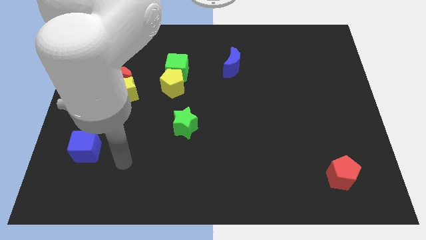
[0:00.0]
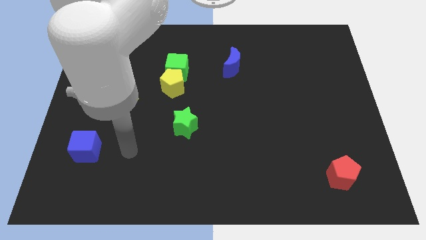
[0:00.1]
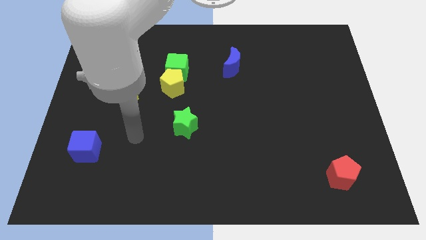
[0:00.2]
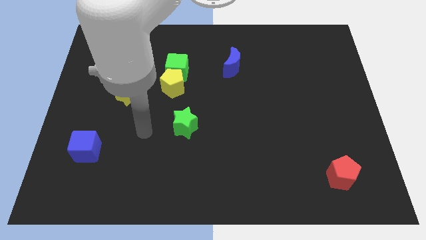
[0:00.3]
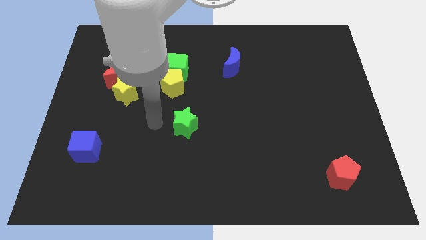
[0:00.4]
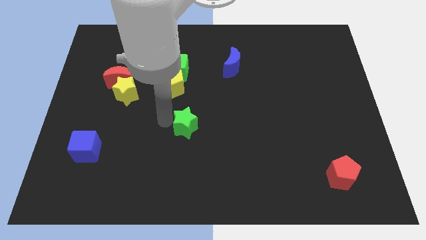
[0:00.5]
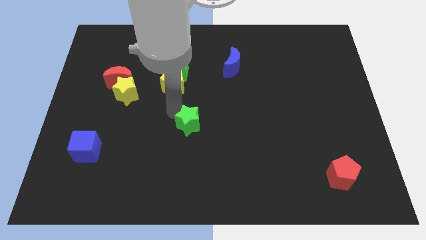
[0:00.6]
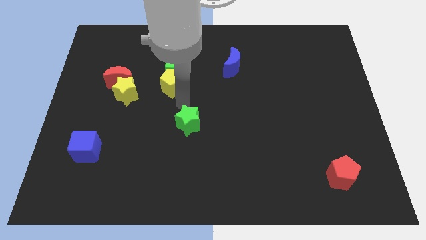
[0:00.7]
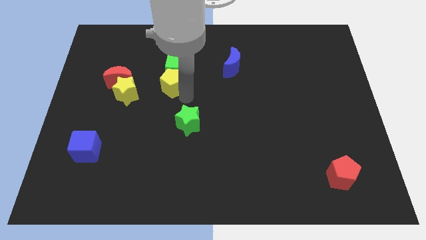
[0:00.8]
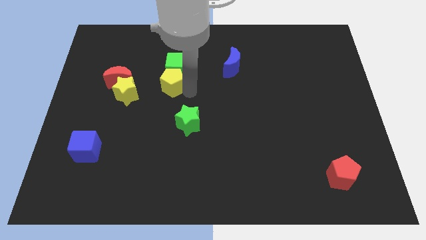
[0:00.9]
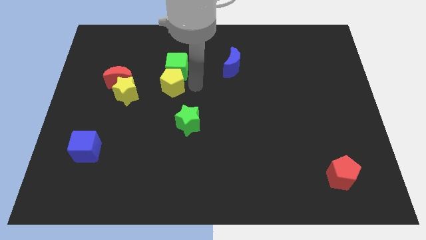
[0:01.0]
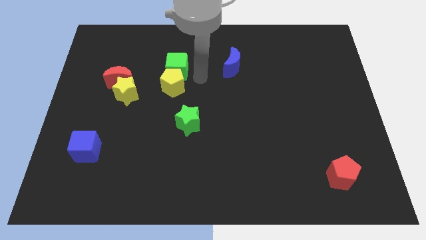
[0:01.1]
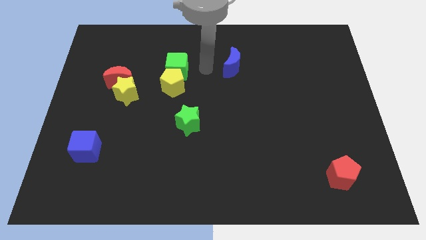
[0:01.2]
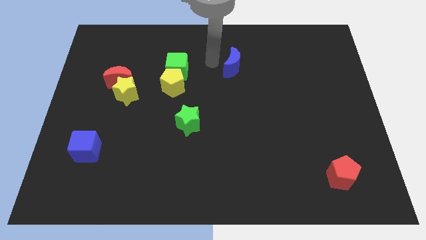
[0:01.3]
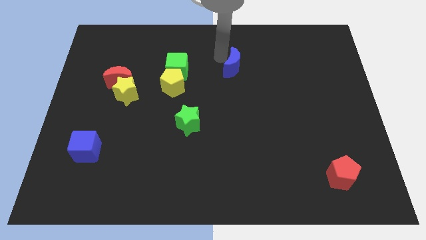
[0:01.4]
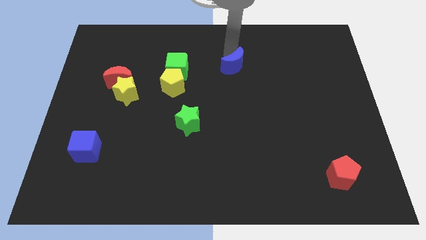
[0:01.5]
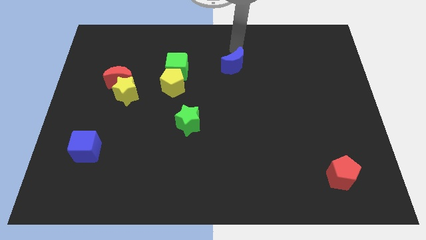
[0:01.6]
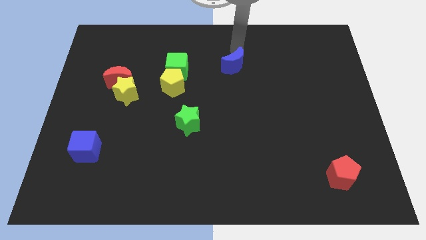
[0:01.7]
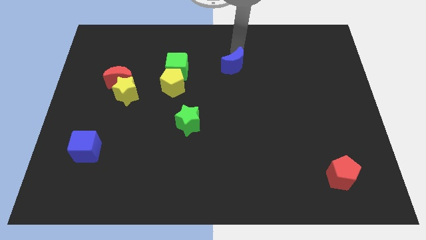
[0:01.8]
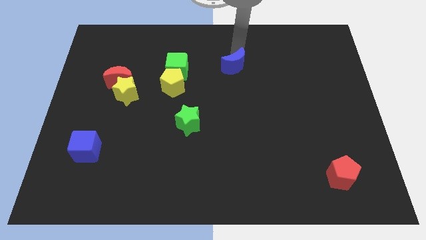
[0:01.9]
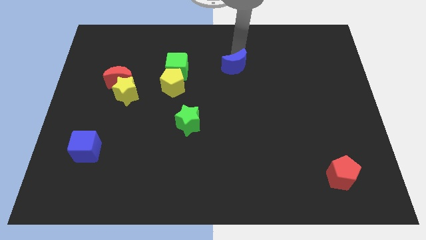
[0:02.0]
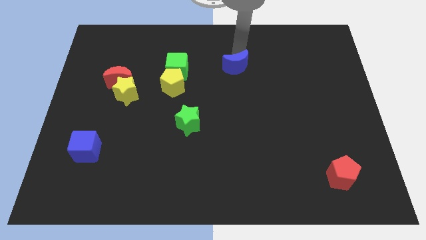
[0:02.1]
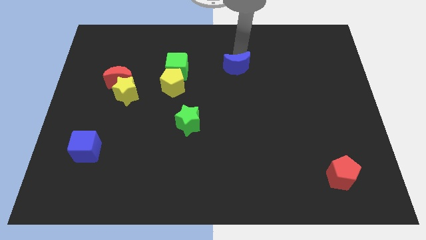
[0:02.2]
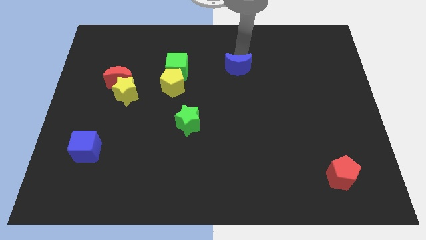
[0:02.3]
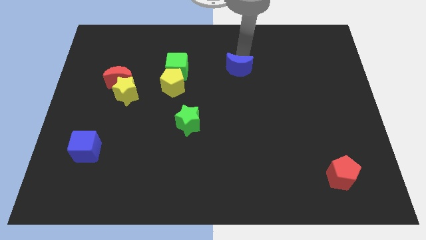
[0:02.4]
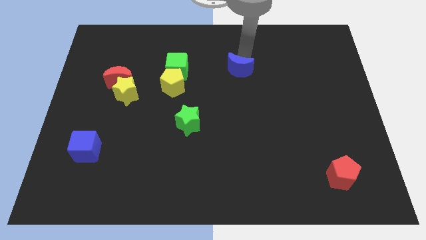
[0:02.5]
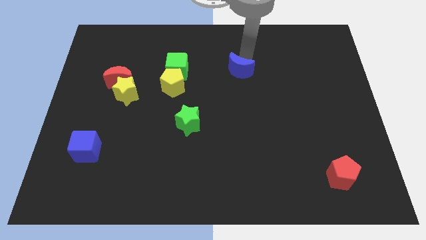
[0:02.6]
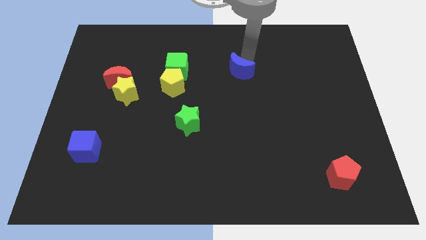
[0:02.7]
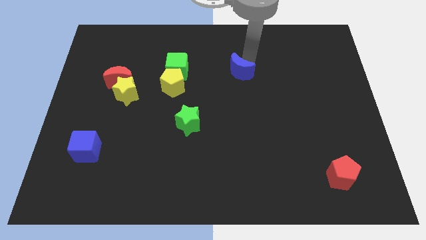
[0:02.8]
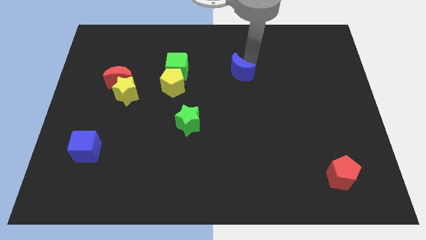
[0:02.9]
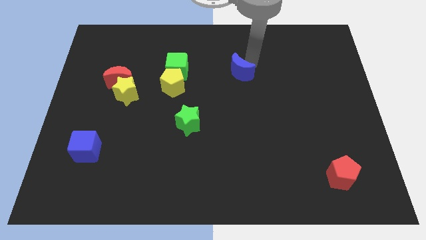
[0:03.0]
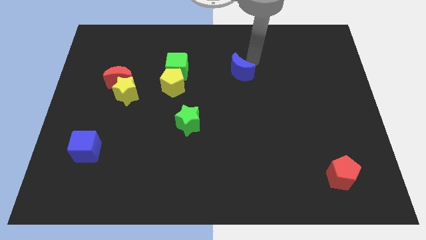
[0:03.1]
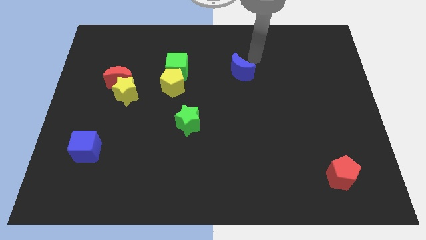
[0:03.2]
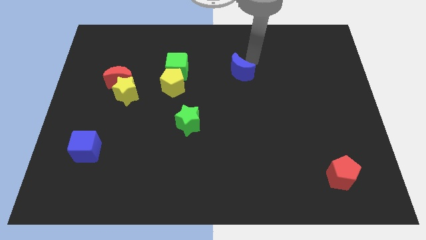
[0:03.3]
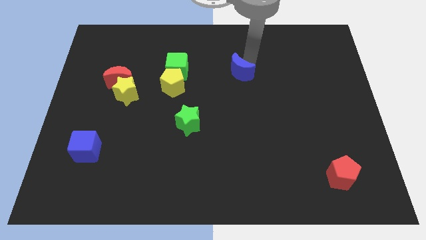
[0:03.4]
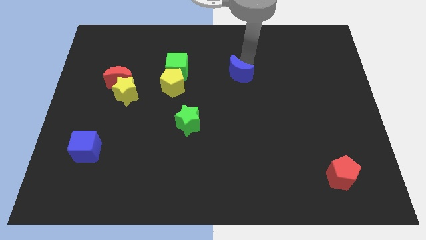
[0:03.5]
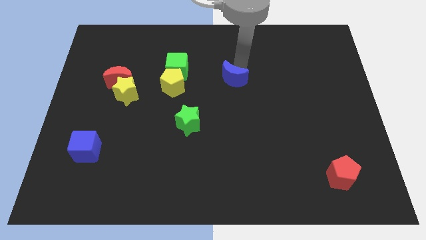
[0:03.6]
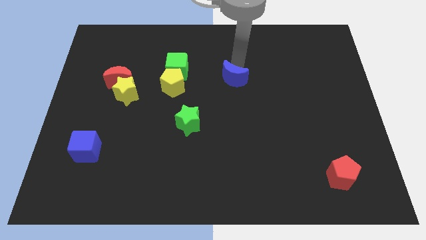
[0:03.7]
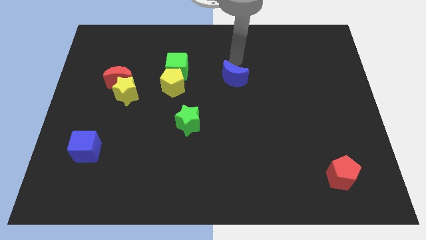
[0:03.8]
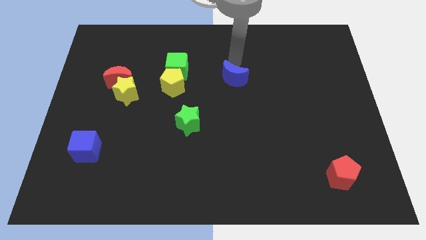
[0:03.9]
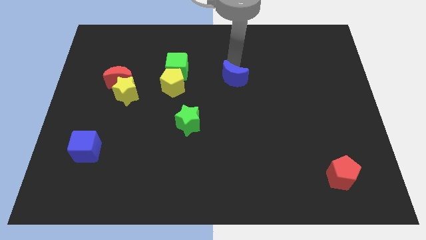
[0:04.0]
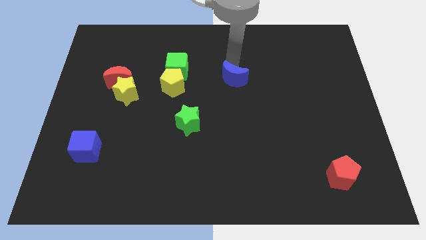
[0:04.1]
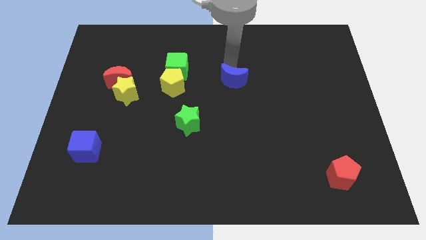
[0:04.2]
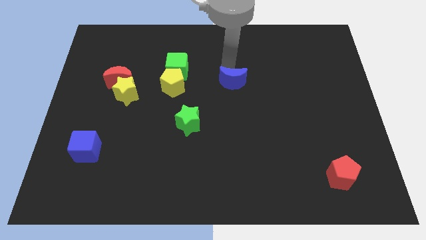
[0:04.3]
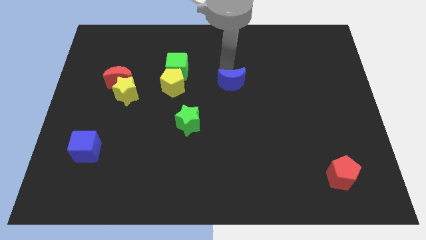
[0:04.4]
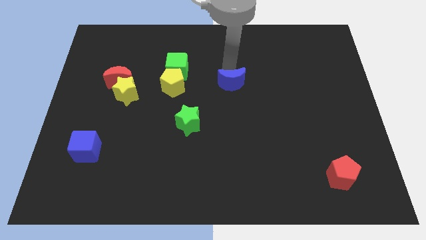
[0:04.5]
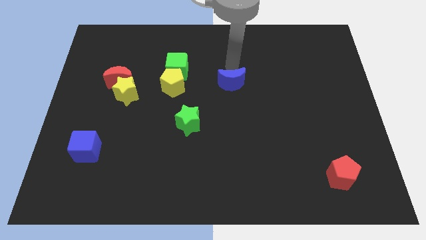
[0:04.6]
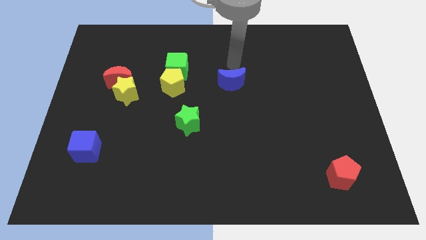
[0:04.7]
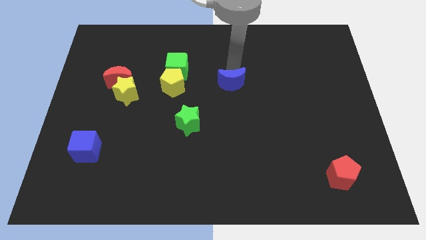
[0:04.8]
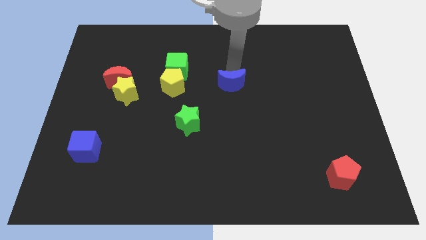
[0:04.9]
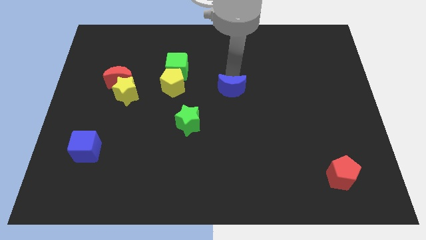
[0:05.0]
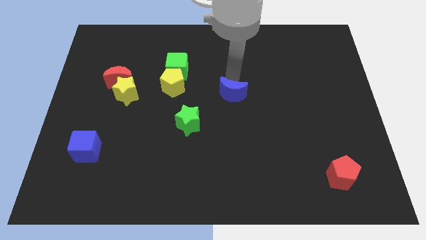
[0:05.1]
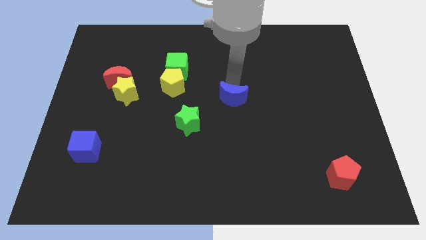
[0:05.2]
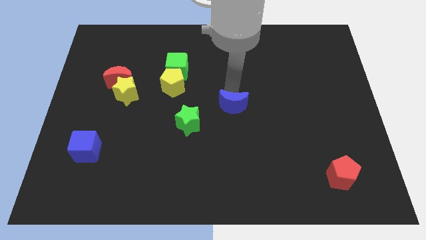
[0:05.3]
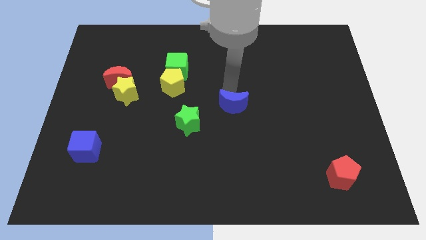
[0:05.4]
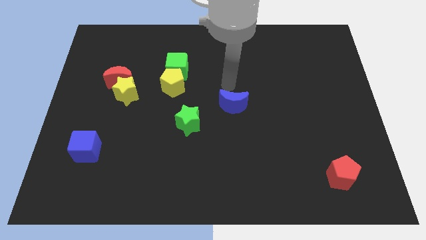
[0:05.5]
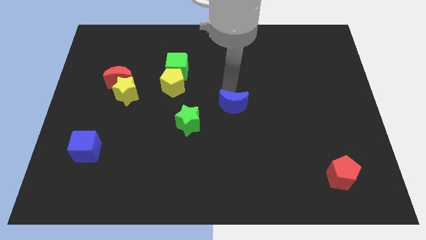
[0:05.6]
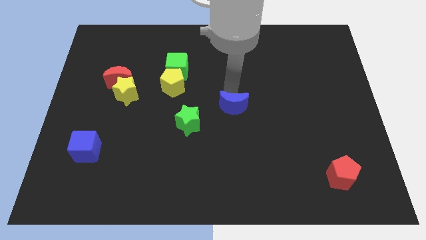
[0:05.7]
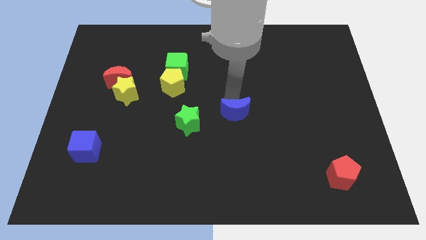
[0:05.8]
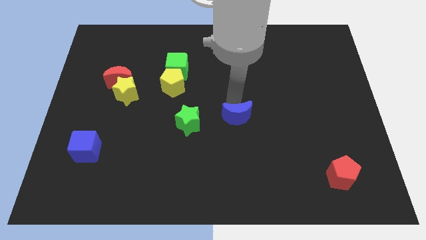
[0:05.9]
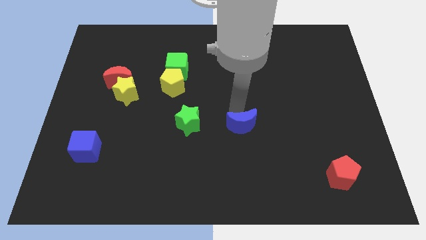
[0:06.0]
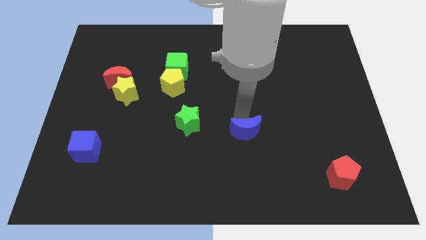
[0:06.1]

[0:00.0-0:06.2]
move the blue moon downwards

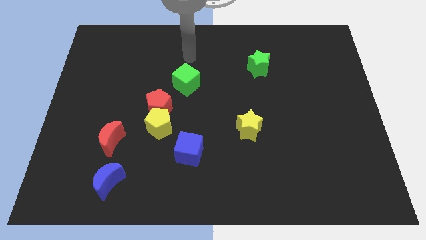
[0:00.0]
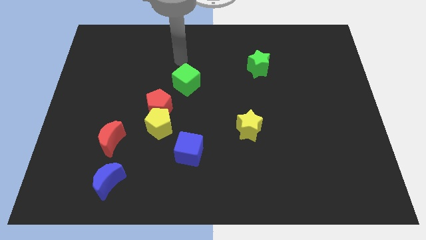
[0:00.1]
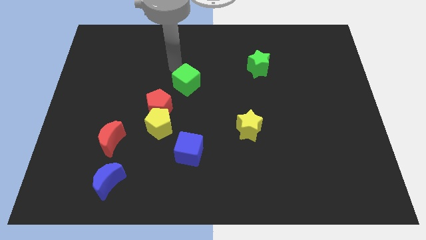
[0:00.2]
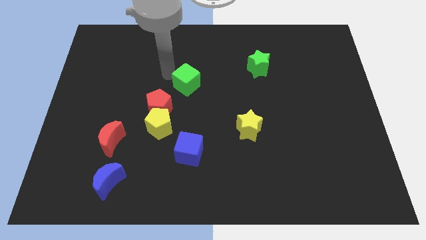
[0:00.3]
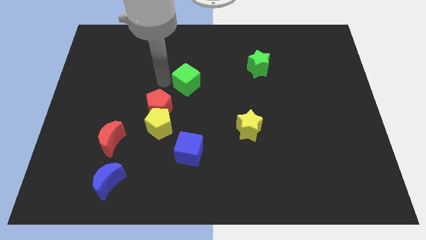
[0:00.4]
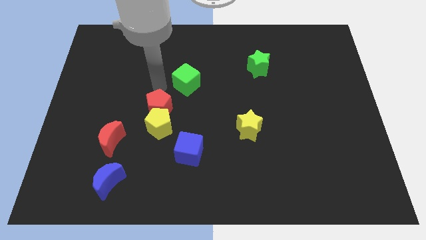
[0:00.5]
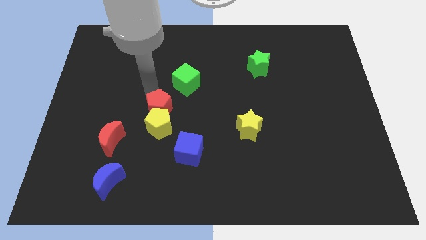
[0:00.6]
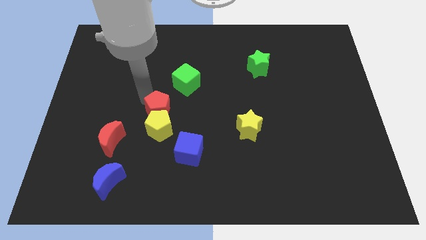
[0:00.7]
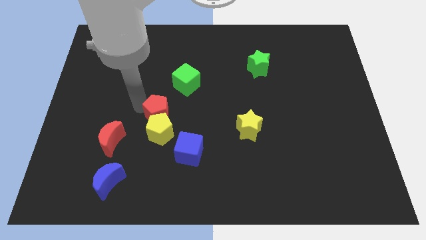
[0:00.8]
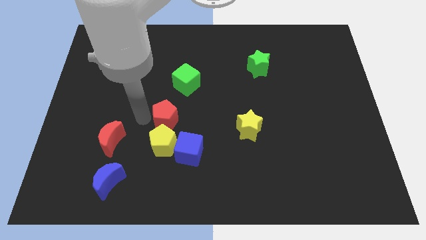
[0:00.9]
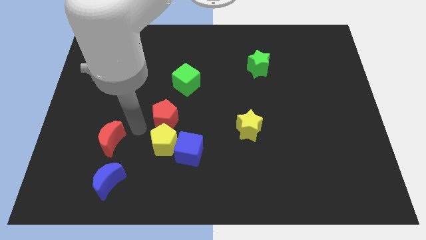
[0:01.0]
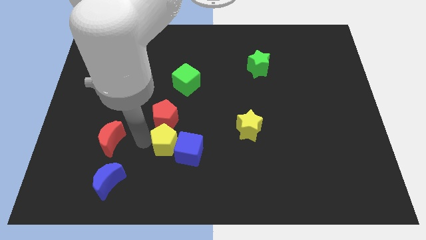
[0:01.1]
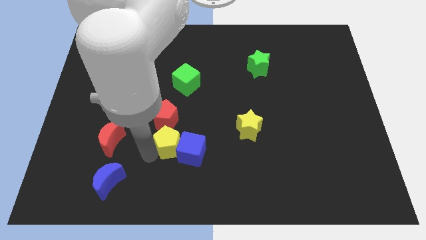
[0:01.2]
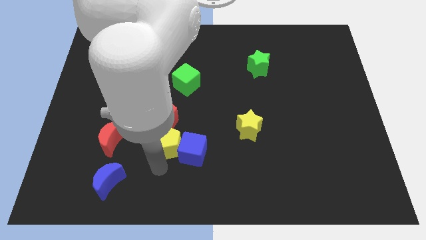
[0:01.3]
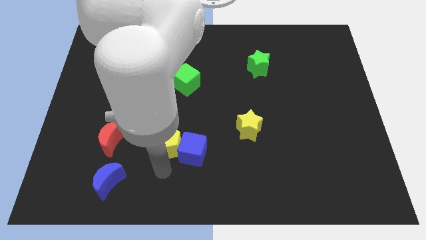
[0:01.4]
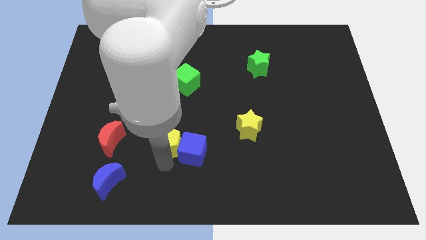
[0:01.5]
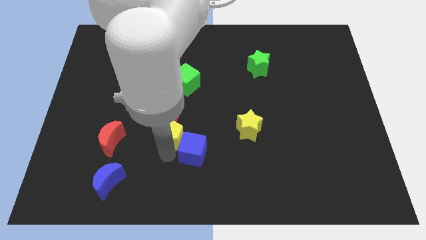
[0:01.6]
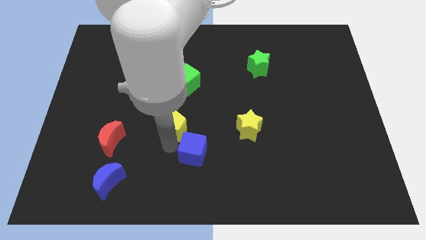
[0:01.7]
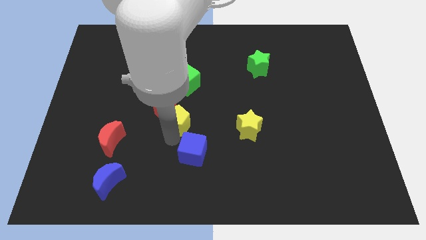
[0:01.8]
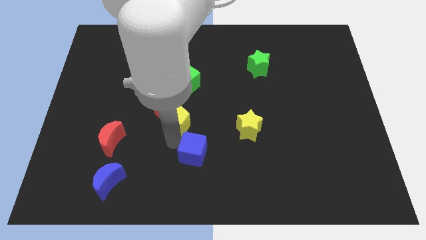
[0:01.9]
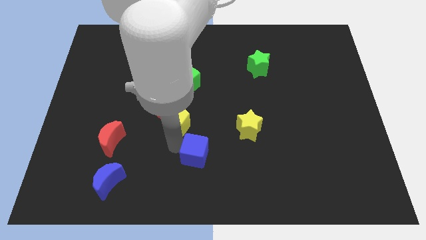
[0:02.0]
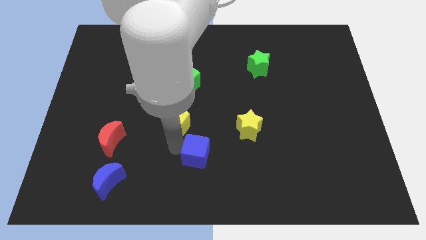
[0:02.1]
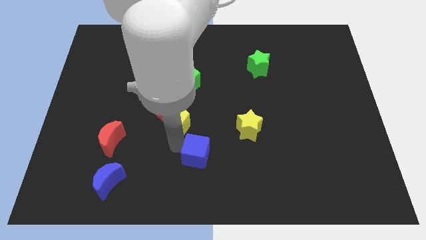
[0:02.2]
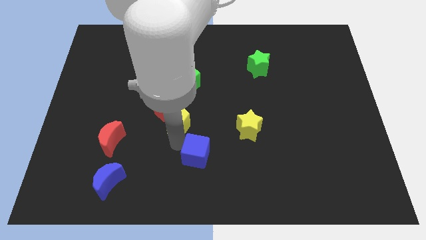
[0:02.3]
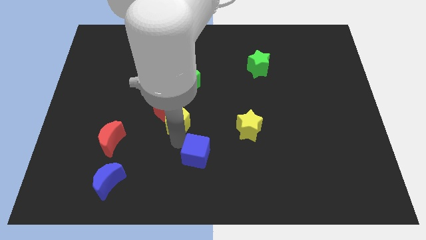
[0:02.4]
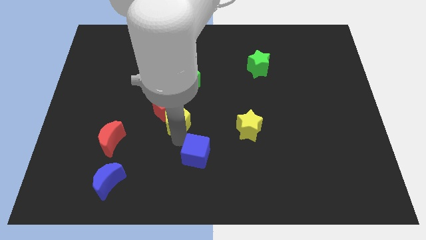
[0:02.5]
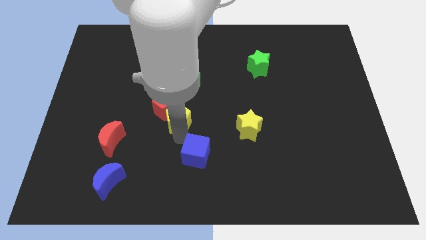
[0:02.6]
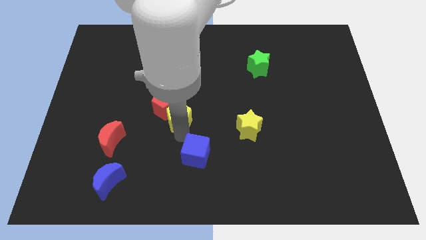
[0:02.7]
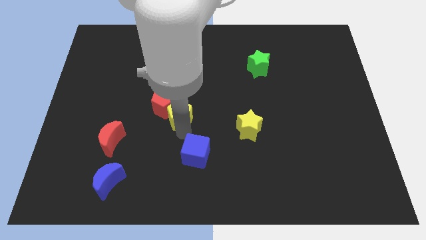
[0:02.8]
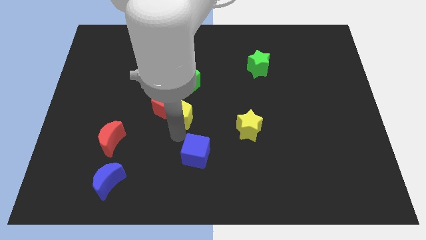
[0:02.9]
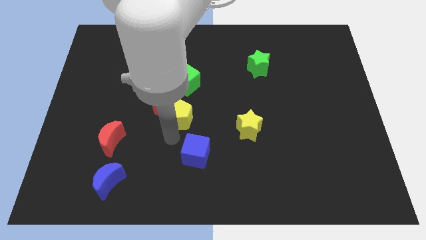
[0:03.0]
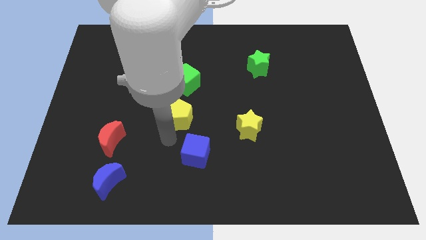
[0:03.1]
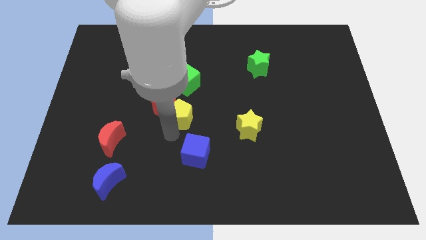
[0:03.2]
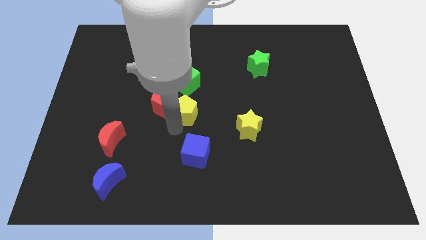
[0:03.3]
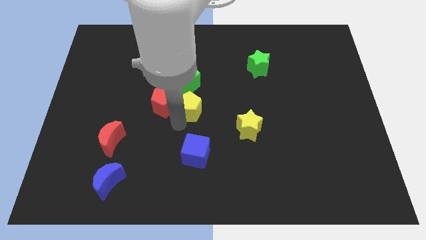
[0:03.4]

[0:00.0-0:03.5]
move the yellow pentagon slightly diagonally upwards and to the right
